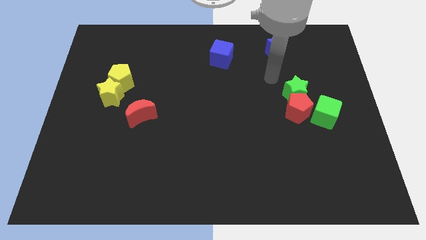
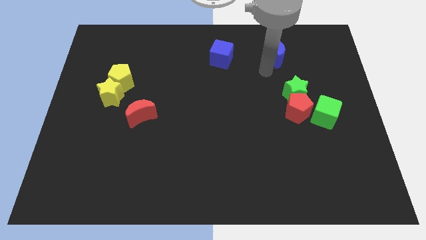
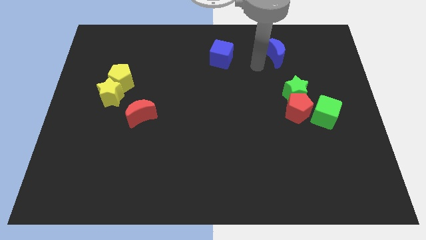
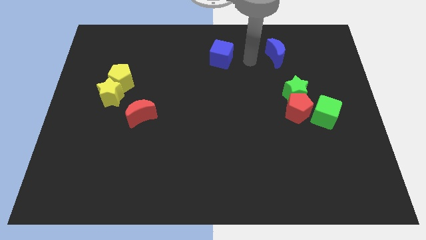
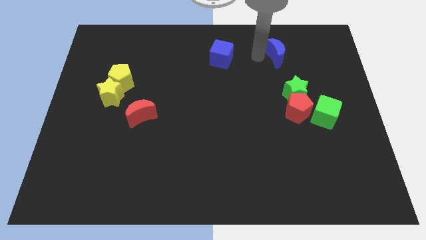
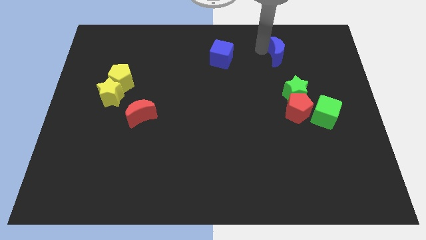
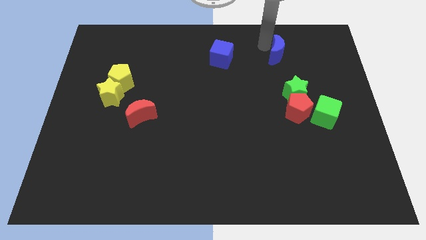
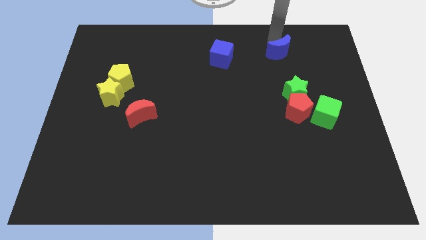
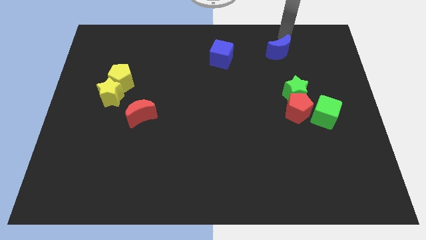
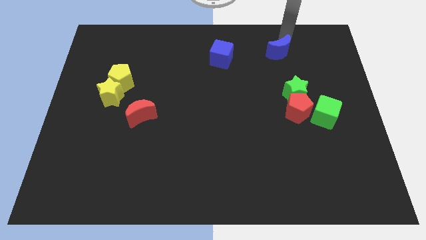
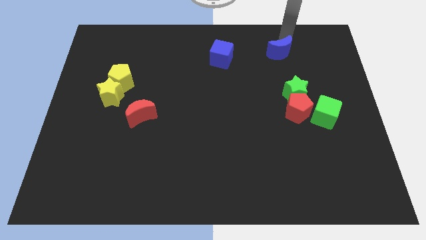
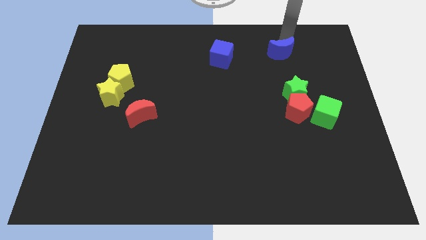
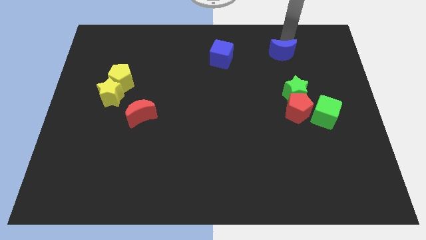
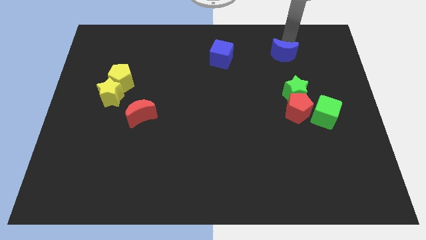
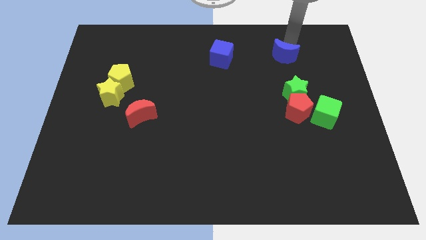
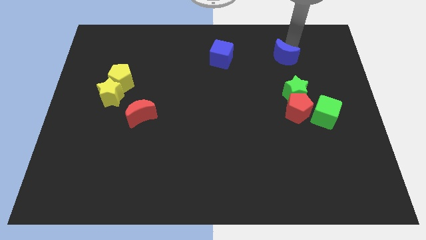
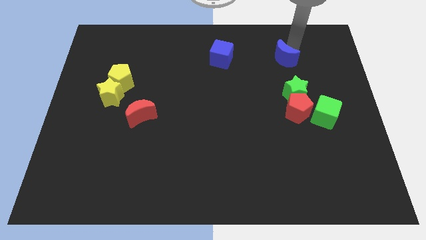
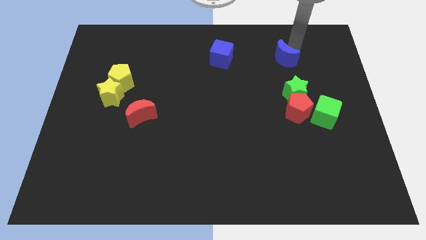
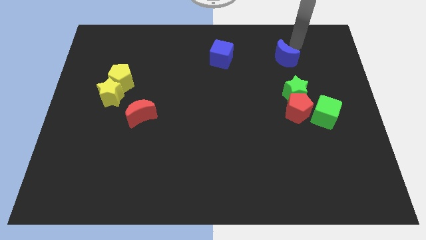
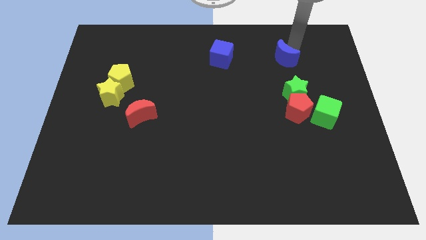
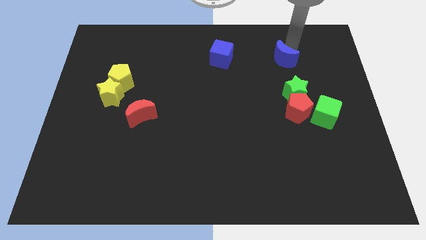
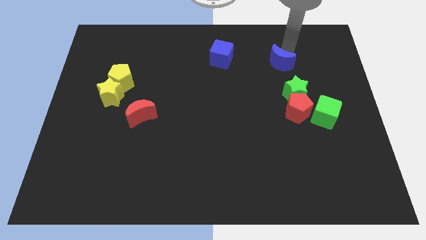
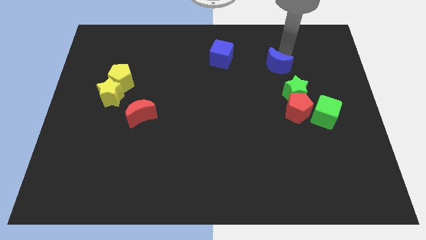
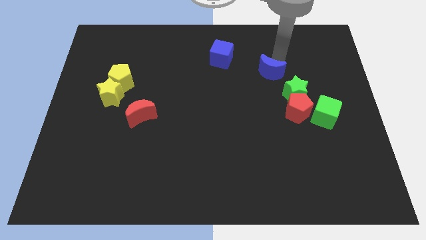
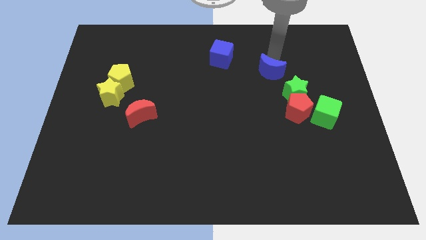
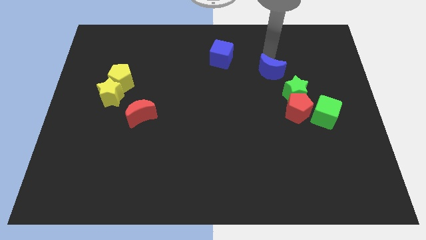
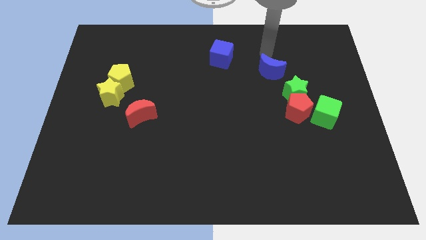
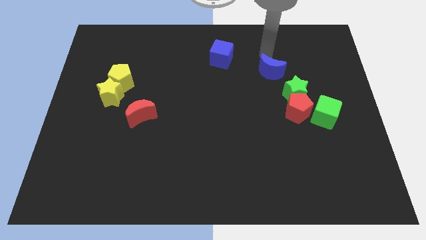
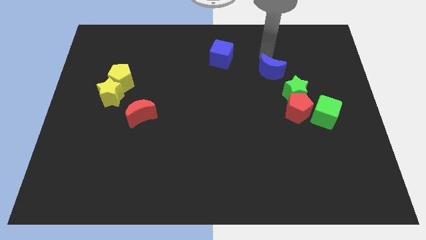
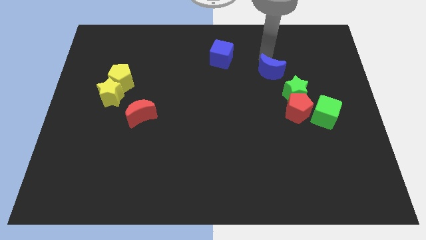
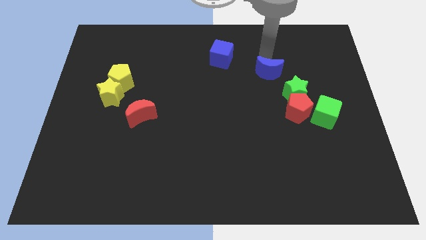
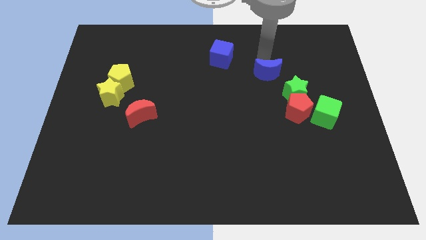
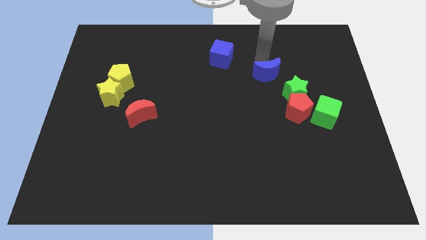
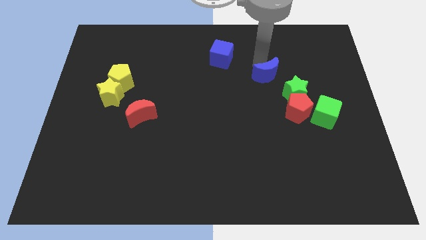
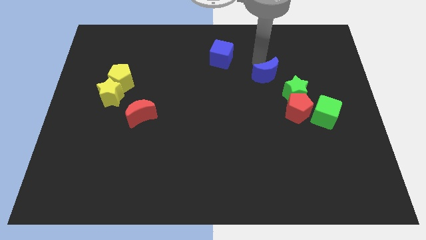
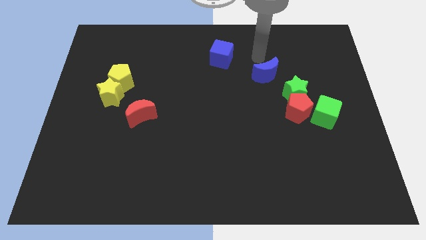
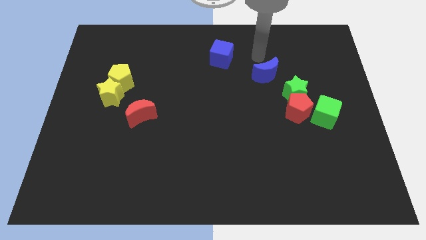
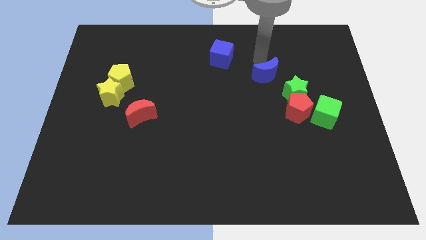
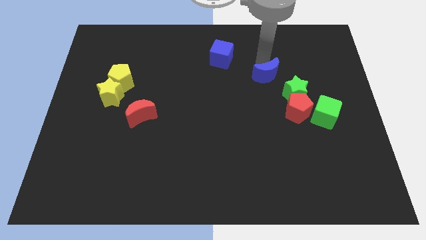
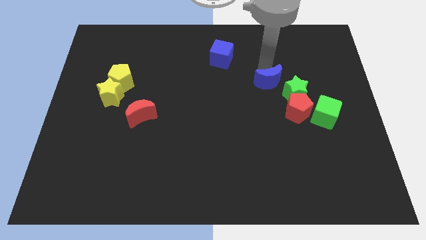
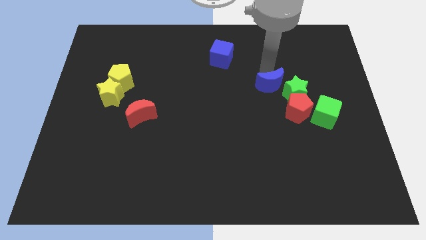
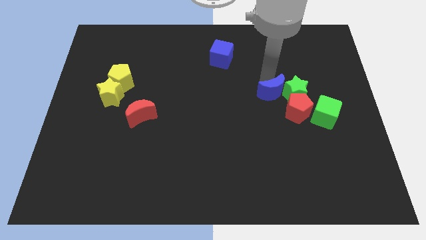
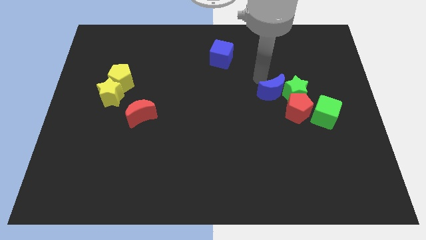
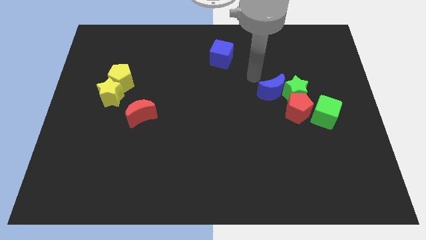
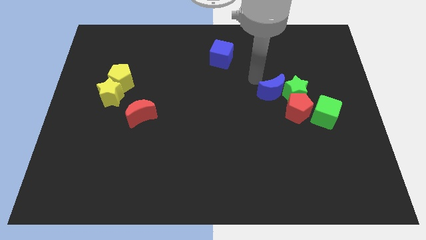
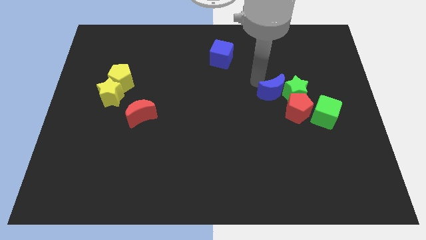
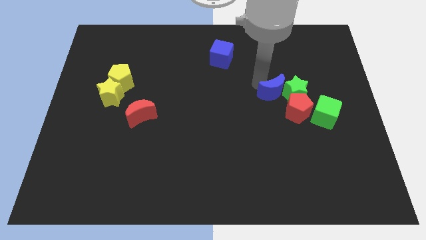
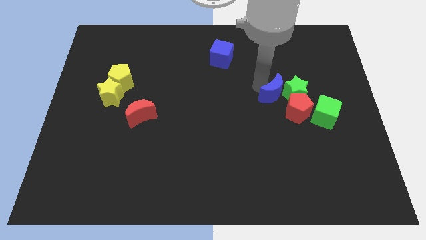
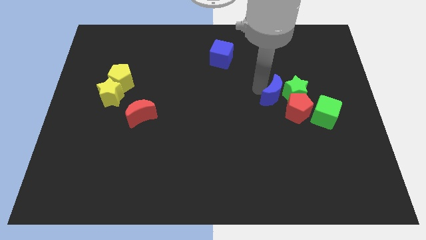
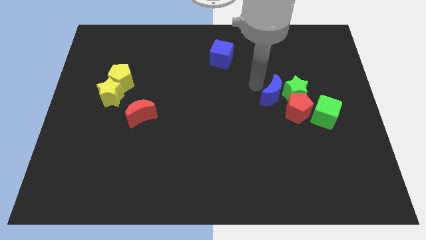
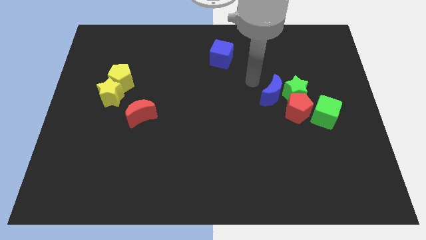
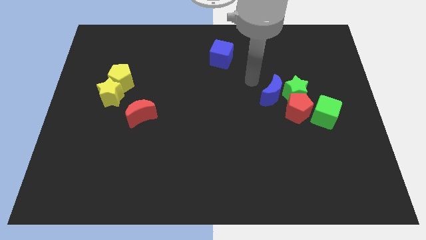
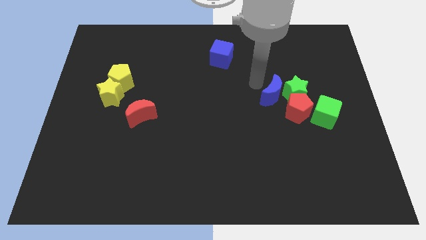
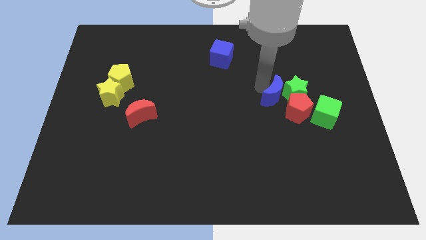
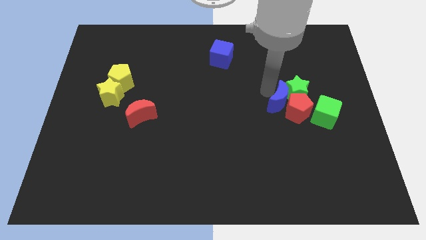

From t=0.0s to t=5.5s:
slide the blue moon towards the red pentagon

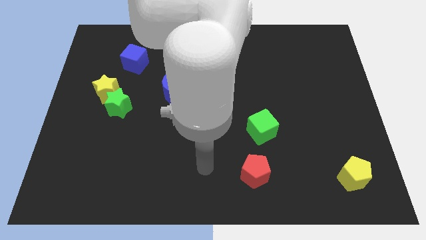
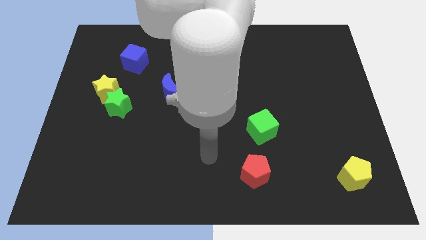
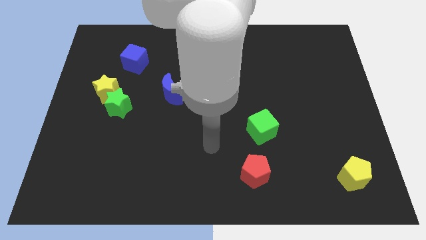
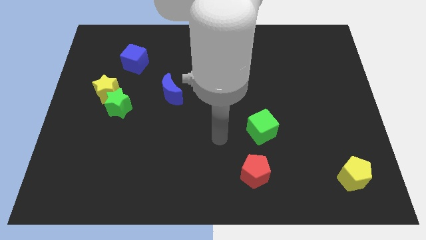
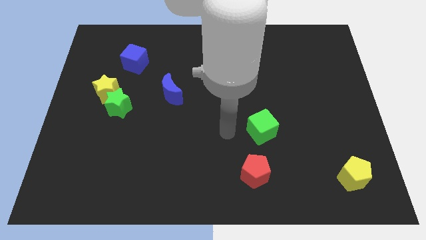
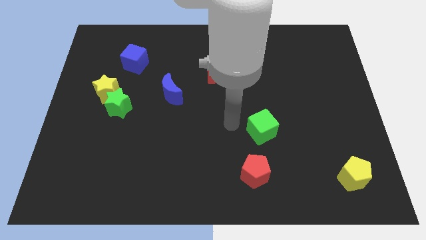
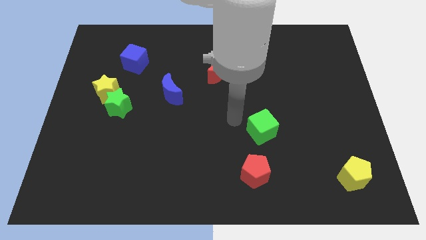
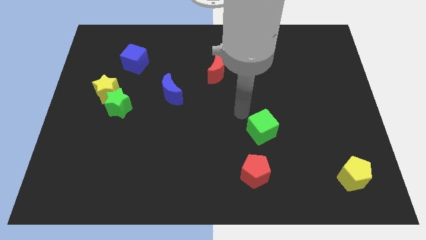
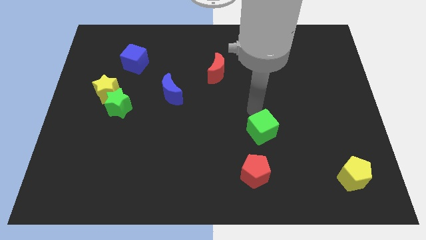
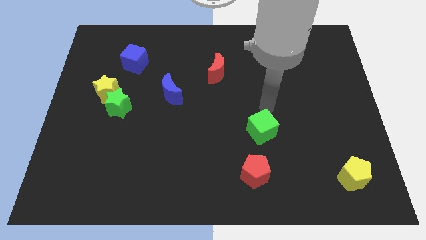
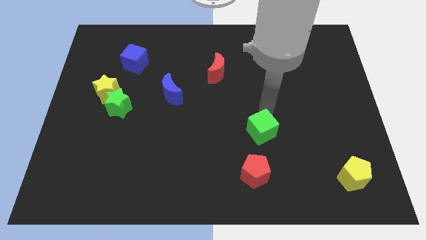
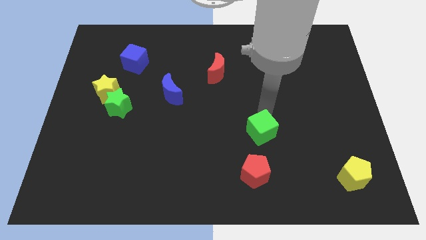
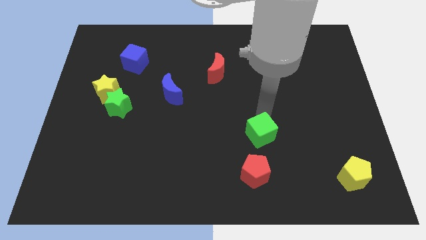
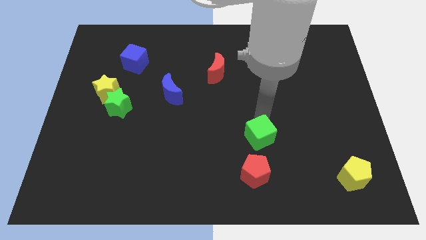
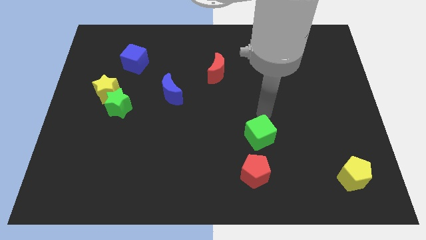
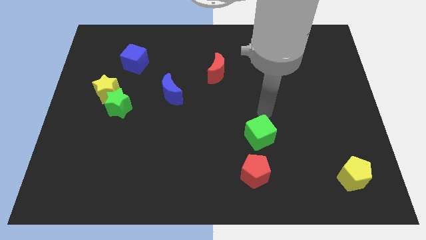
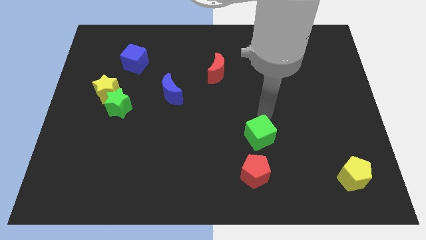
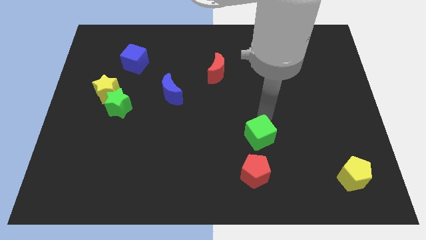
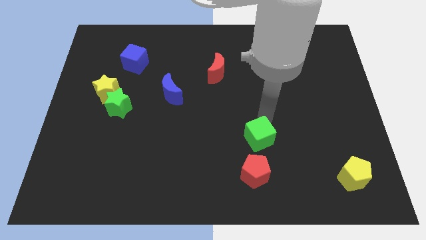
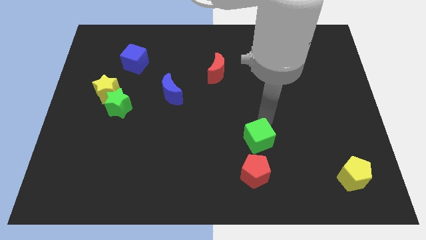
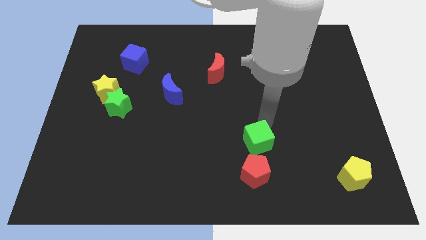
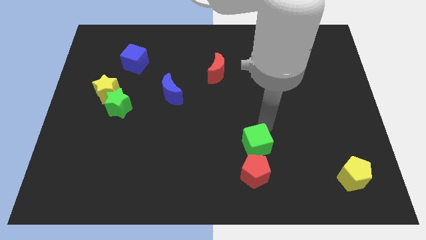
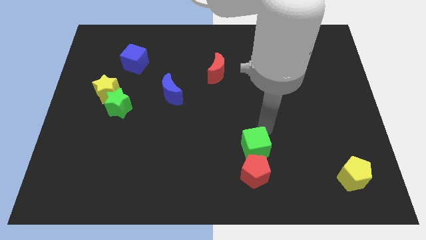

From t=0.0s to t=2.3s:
slide the green cube towards the red pentagon
